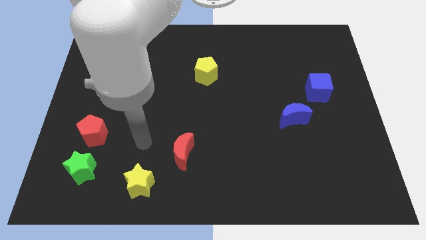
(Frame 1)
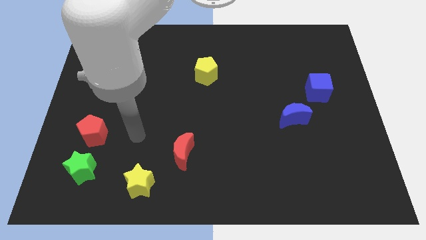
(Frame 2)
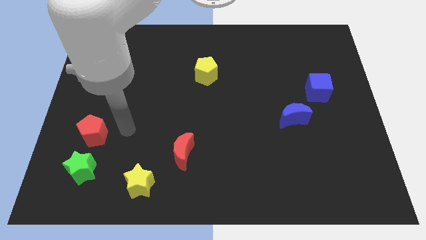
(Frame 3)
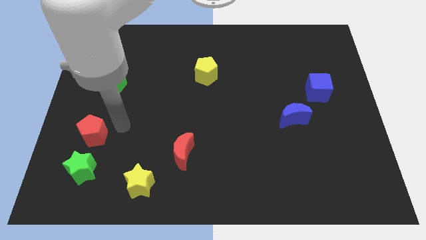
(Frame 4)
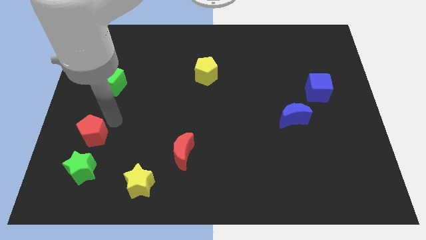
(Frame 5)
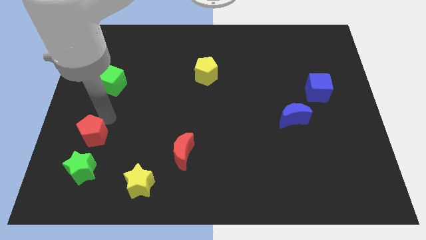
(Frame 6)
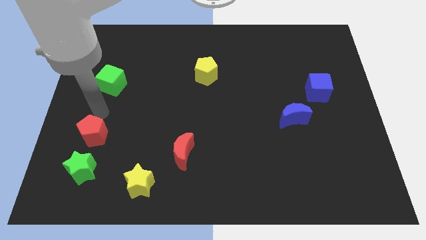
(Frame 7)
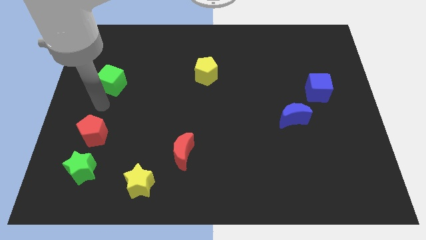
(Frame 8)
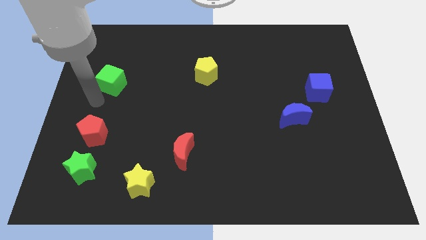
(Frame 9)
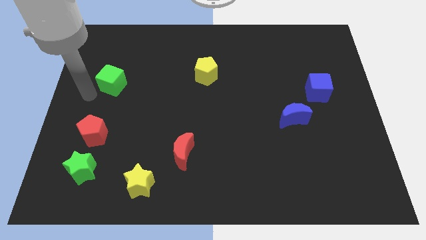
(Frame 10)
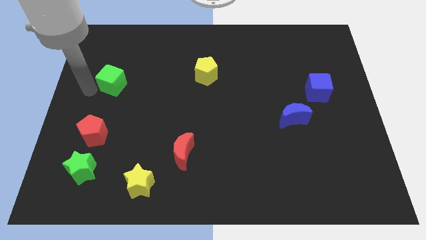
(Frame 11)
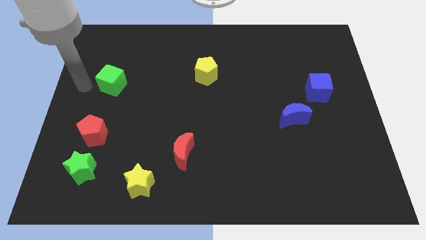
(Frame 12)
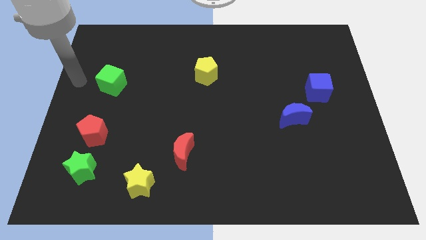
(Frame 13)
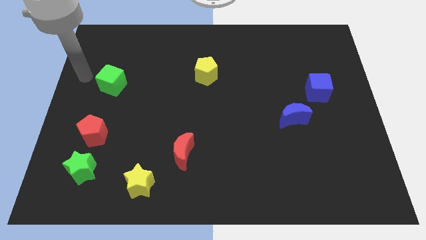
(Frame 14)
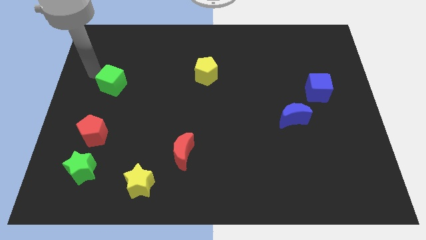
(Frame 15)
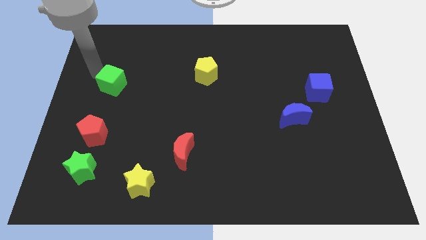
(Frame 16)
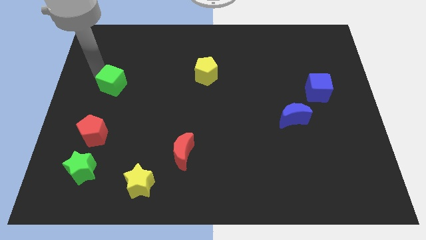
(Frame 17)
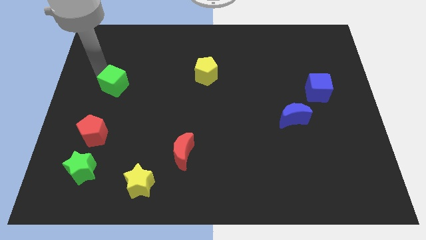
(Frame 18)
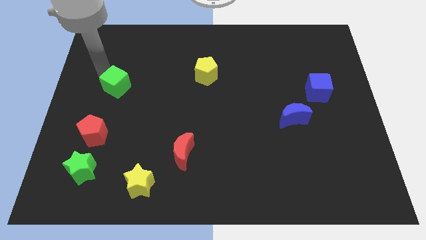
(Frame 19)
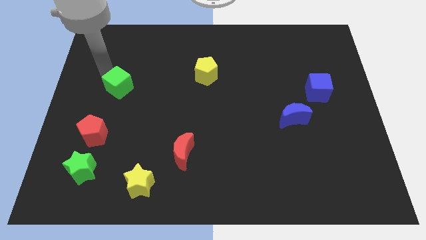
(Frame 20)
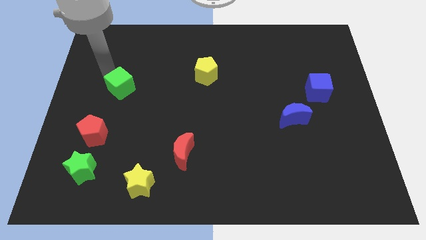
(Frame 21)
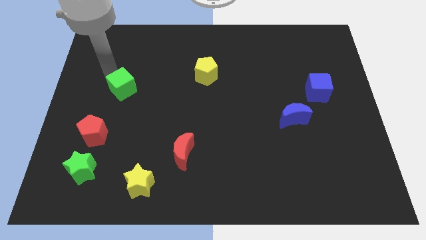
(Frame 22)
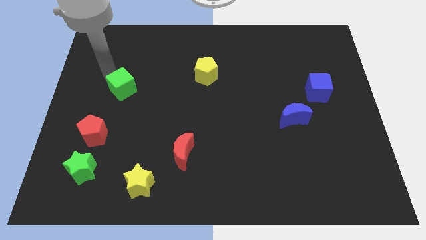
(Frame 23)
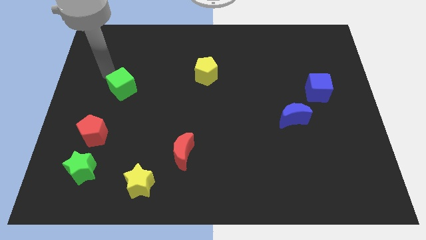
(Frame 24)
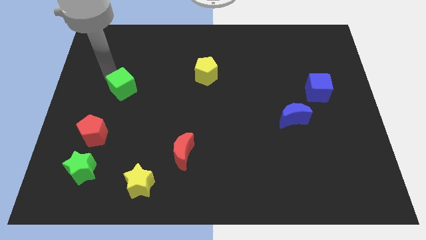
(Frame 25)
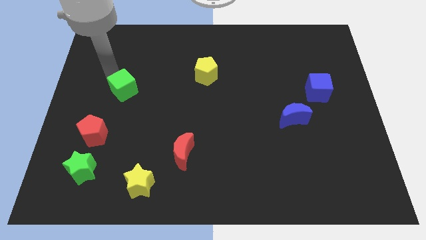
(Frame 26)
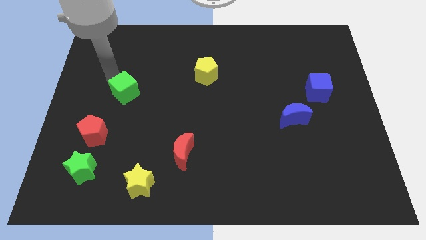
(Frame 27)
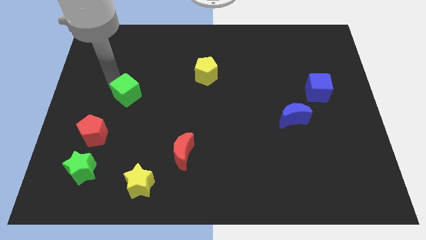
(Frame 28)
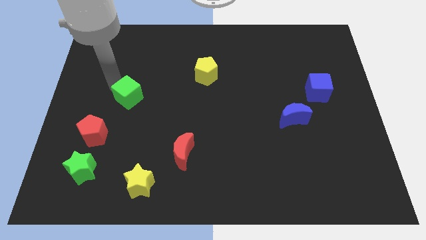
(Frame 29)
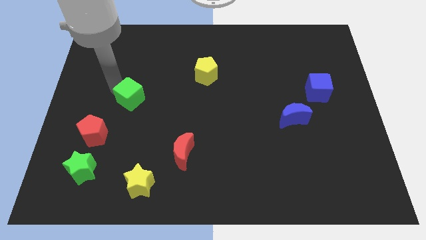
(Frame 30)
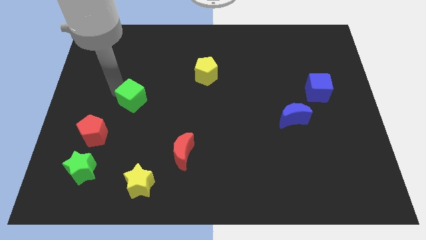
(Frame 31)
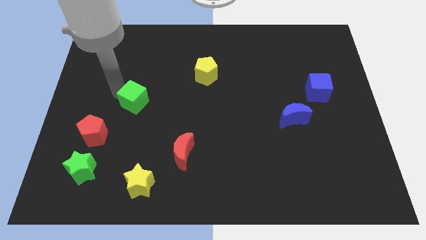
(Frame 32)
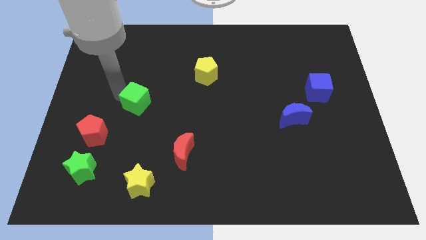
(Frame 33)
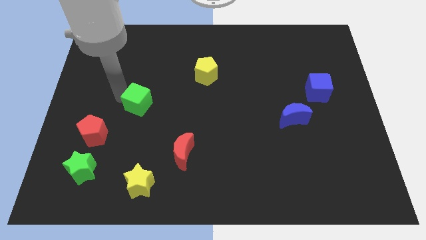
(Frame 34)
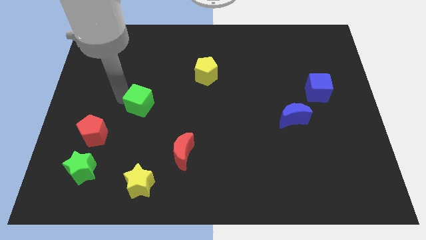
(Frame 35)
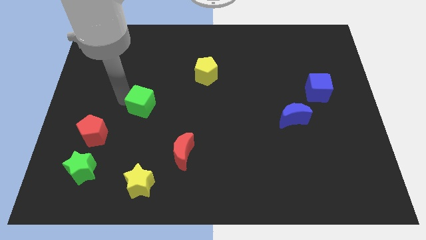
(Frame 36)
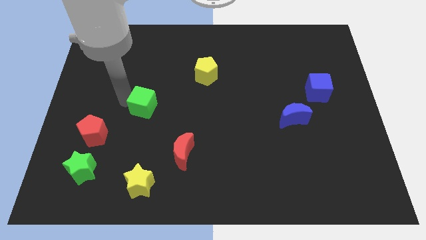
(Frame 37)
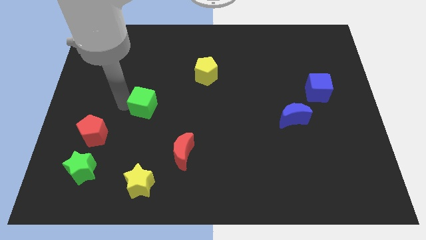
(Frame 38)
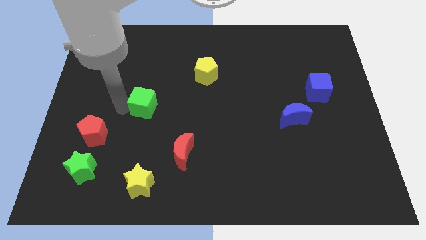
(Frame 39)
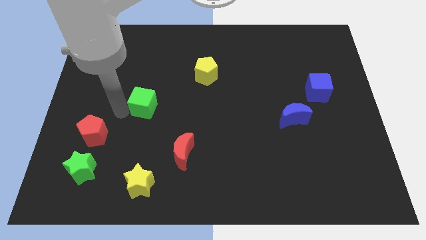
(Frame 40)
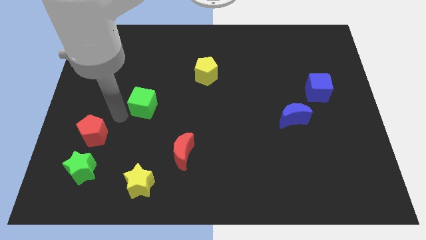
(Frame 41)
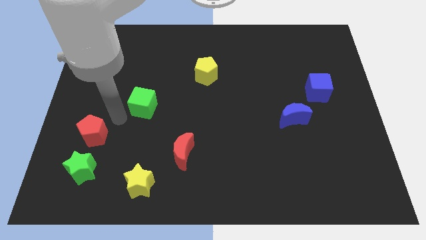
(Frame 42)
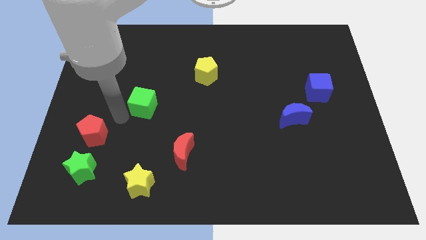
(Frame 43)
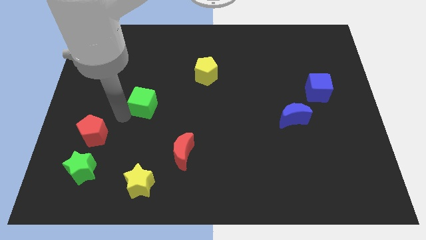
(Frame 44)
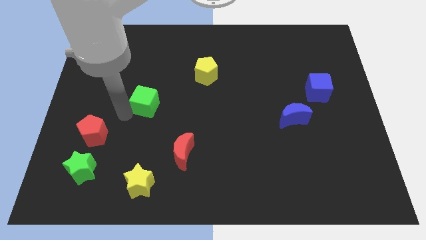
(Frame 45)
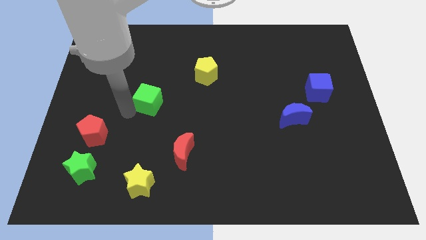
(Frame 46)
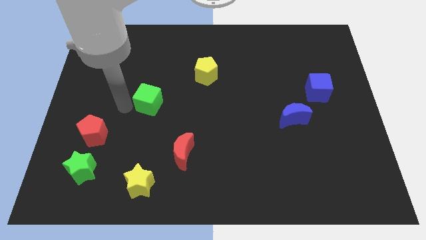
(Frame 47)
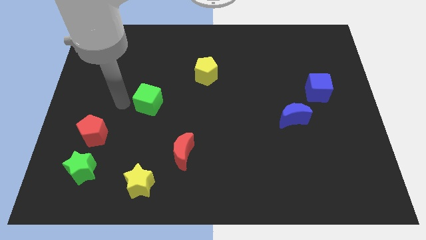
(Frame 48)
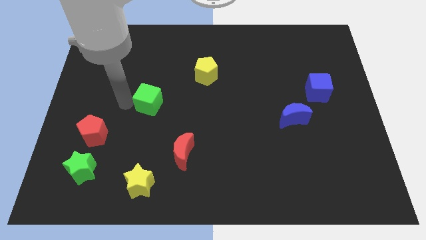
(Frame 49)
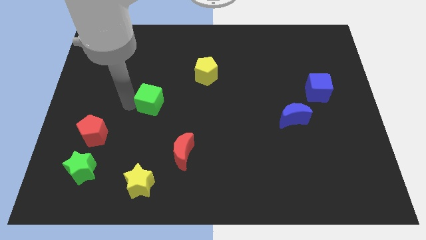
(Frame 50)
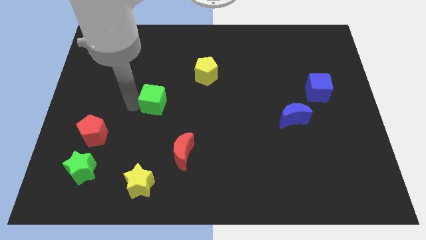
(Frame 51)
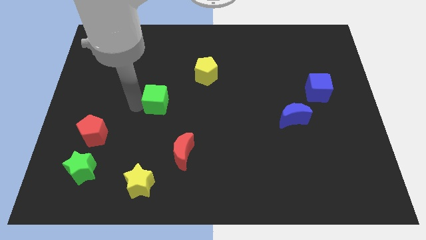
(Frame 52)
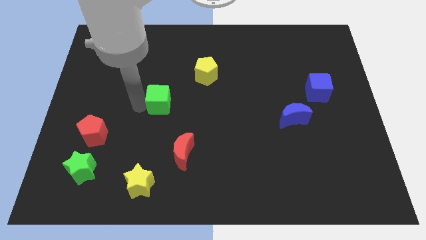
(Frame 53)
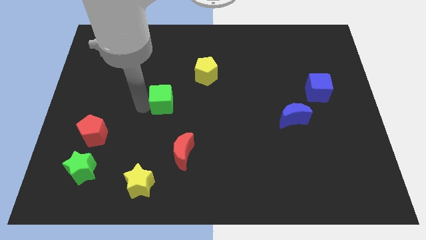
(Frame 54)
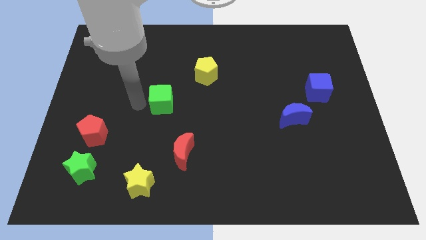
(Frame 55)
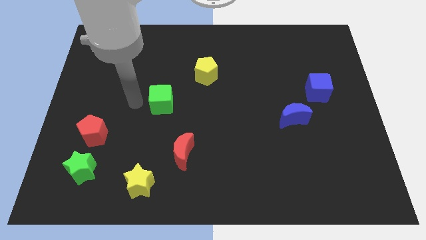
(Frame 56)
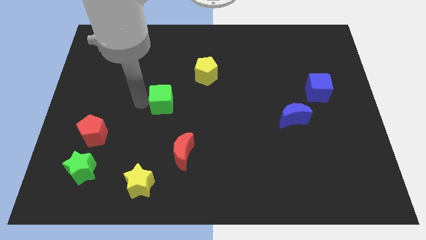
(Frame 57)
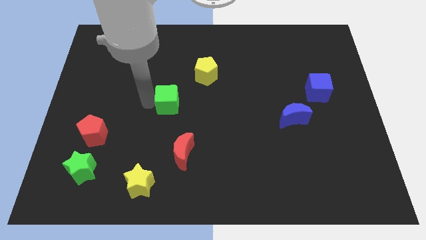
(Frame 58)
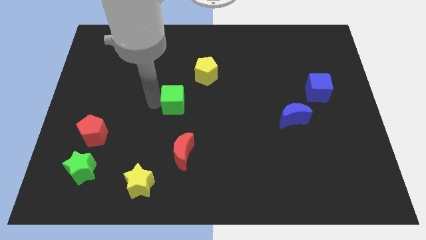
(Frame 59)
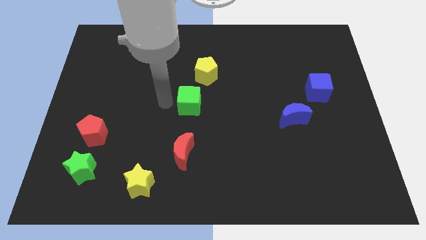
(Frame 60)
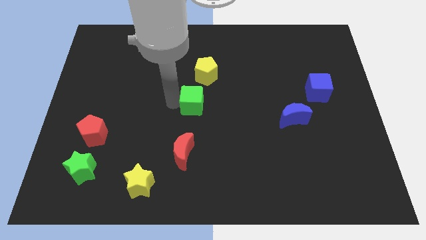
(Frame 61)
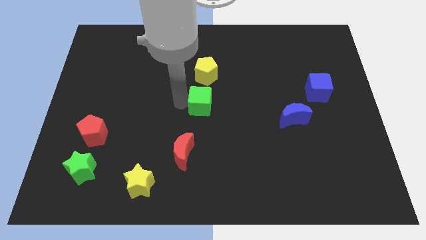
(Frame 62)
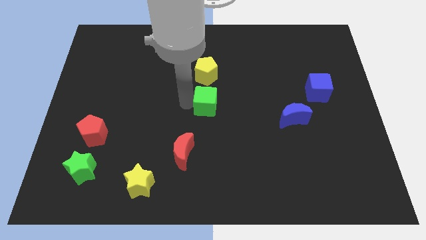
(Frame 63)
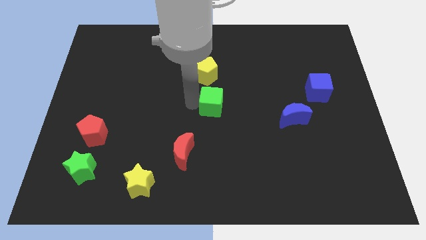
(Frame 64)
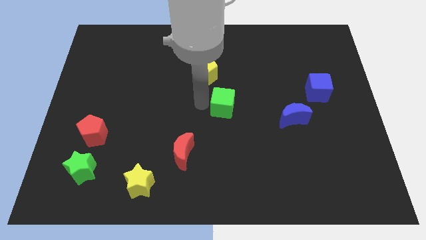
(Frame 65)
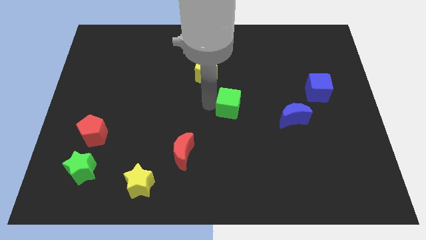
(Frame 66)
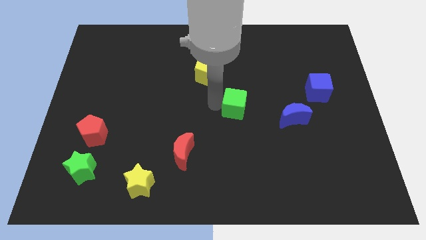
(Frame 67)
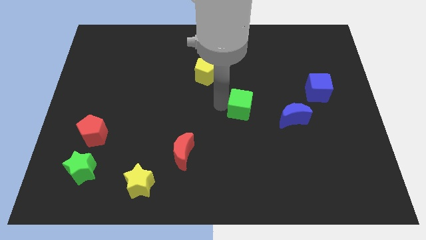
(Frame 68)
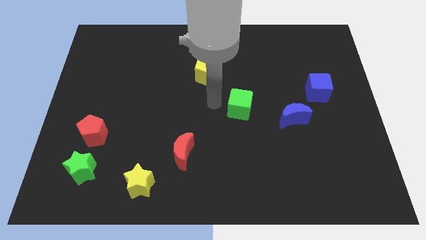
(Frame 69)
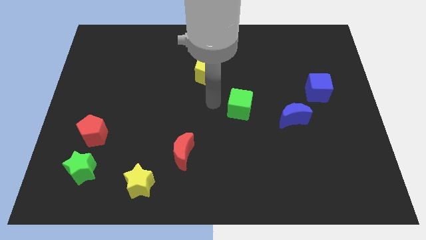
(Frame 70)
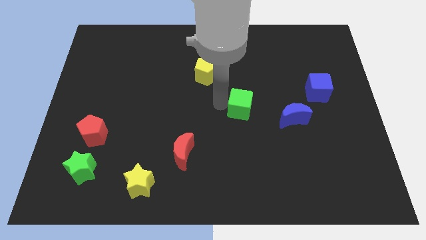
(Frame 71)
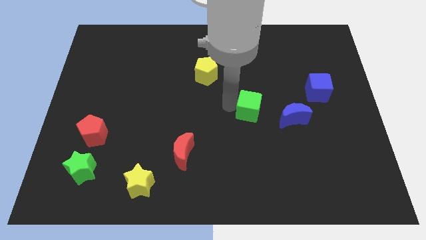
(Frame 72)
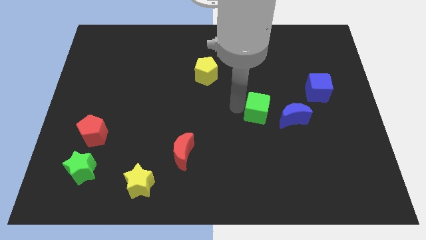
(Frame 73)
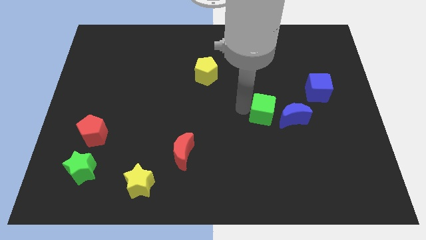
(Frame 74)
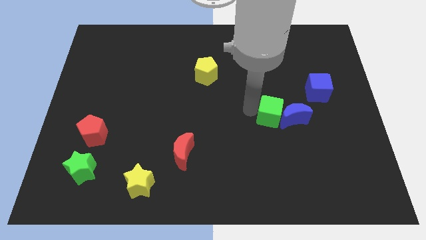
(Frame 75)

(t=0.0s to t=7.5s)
slide the green cube towards the blue moon
